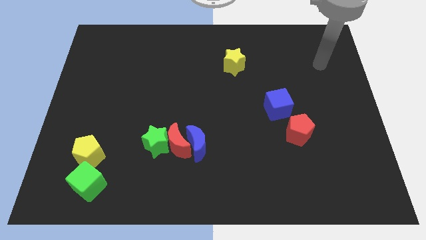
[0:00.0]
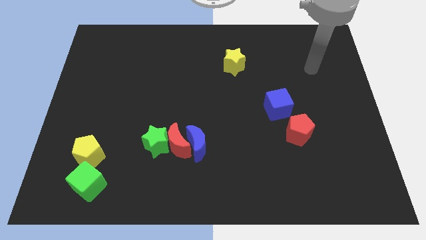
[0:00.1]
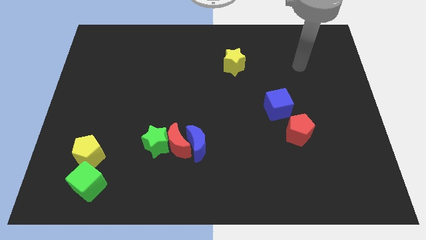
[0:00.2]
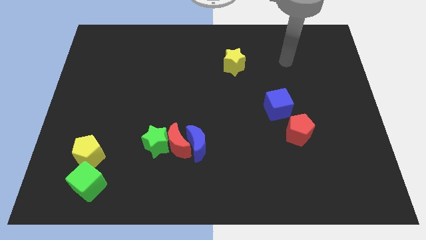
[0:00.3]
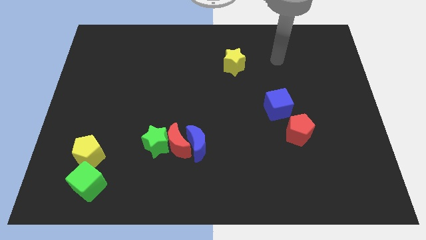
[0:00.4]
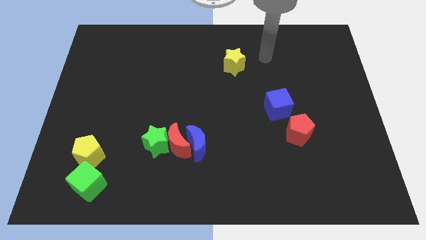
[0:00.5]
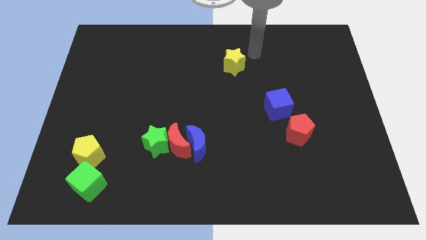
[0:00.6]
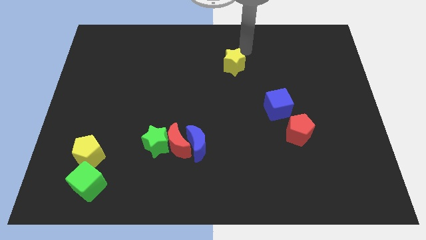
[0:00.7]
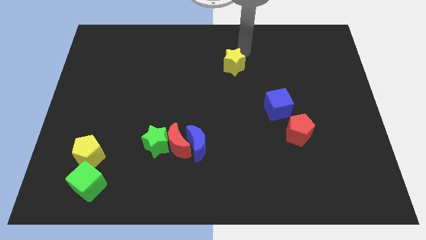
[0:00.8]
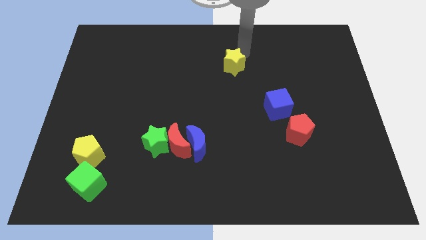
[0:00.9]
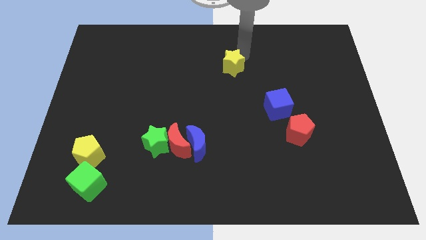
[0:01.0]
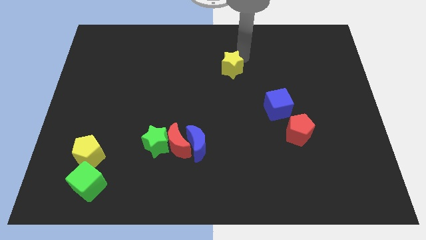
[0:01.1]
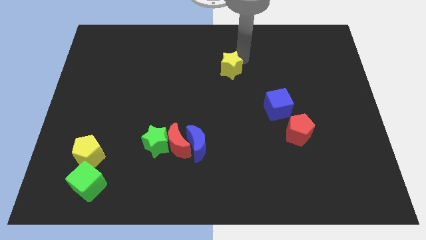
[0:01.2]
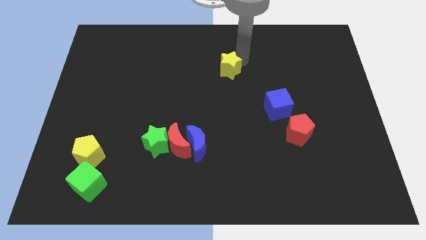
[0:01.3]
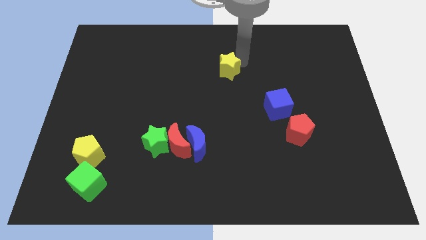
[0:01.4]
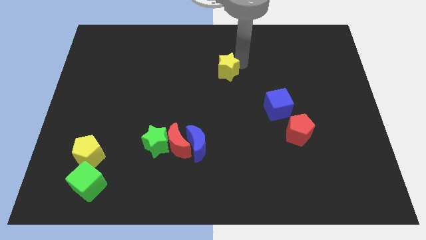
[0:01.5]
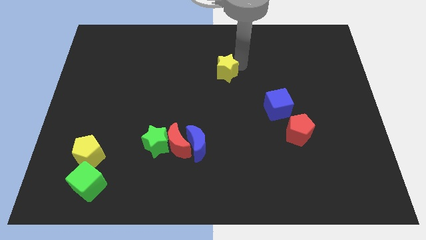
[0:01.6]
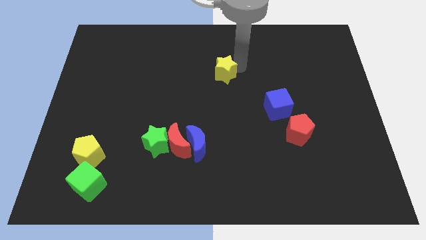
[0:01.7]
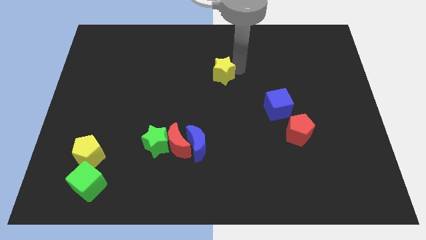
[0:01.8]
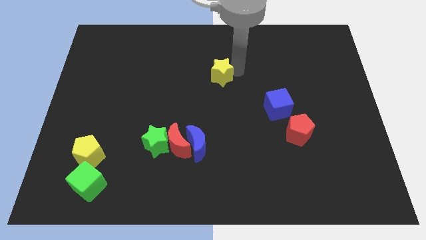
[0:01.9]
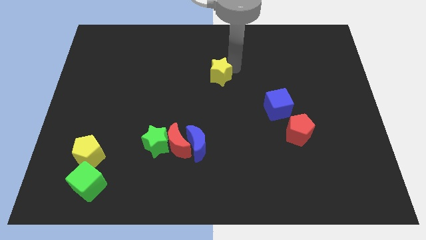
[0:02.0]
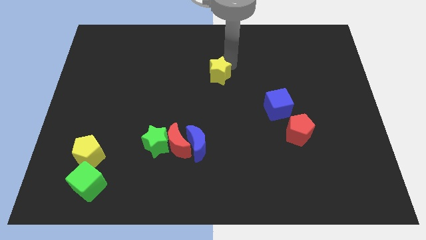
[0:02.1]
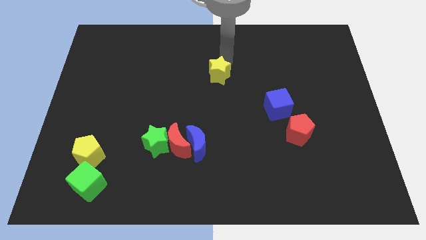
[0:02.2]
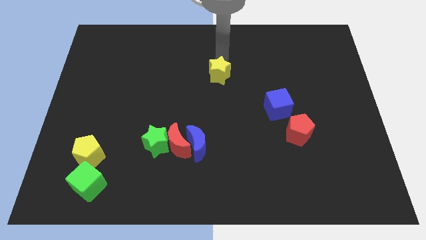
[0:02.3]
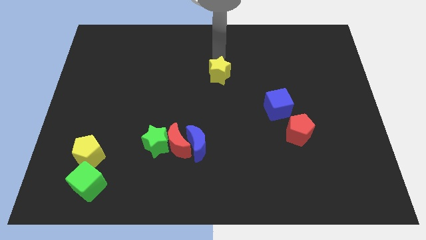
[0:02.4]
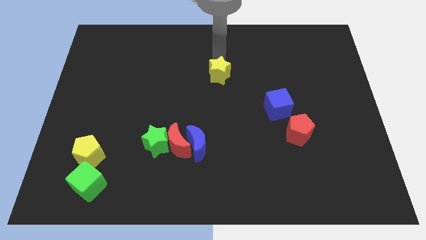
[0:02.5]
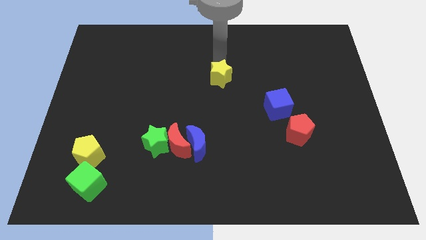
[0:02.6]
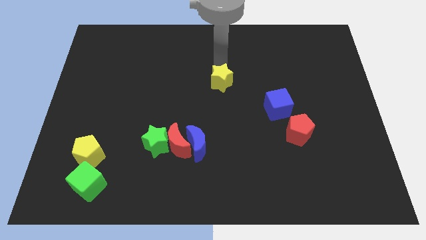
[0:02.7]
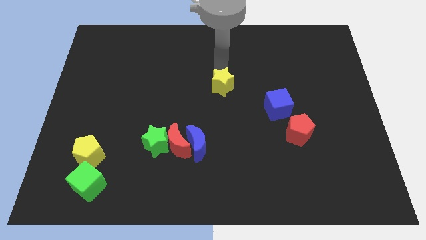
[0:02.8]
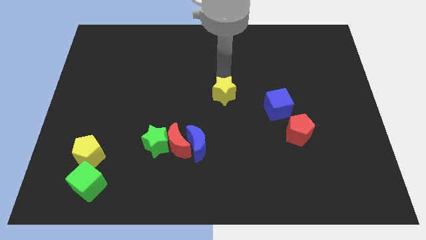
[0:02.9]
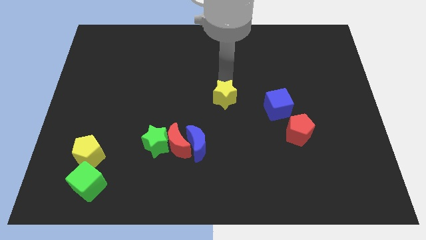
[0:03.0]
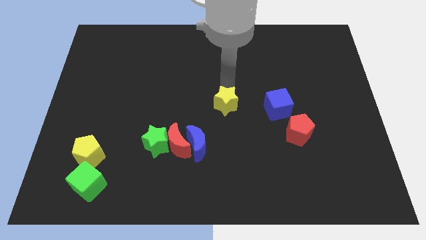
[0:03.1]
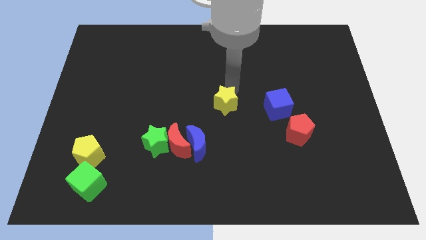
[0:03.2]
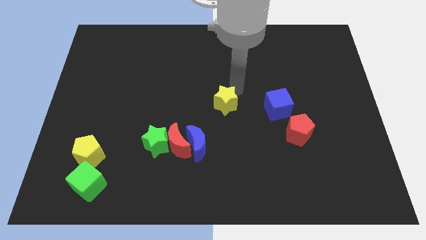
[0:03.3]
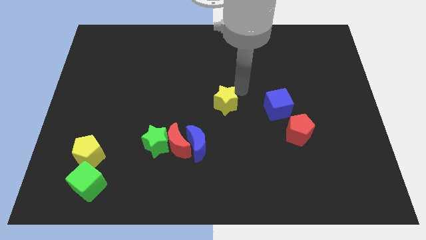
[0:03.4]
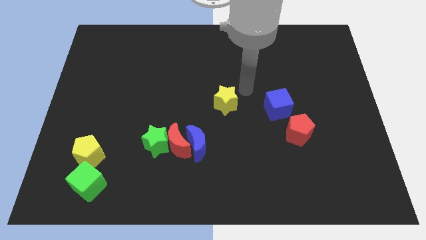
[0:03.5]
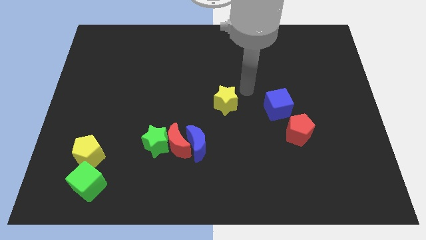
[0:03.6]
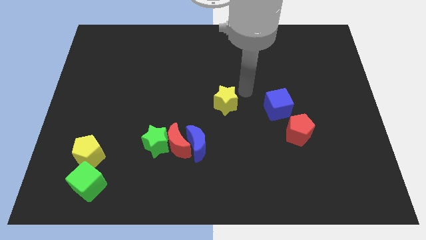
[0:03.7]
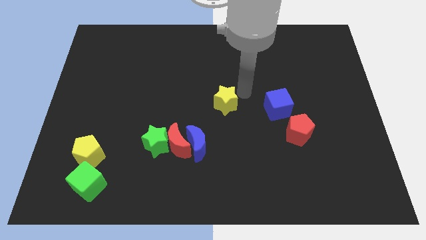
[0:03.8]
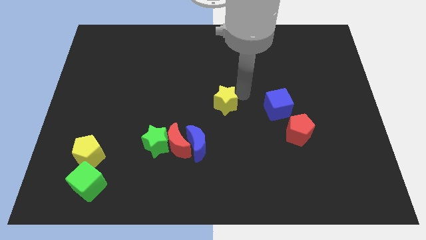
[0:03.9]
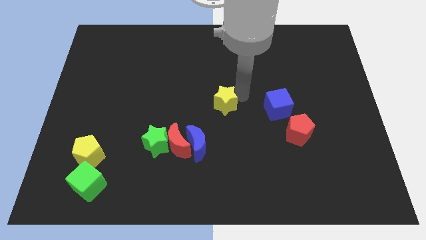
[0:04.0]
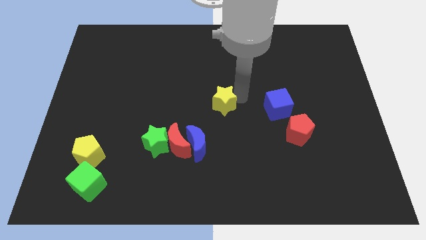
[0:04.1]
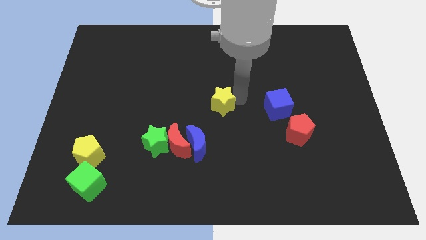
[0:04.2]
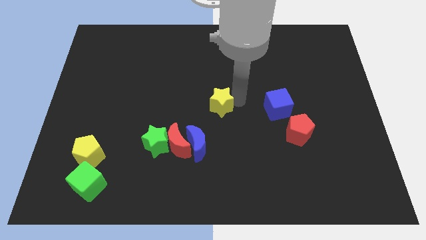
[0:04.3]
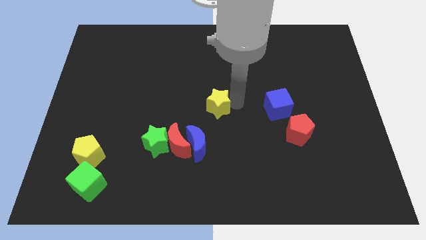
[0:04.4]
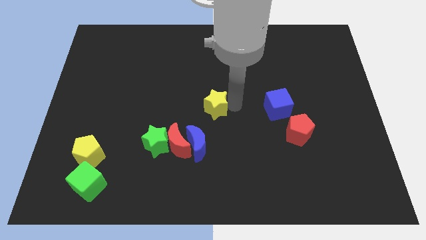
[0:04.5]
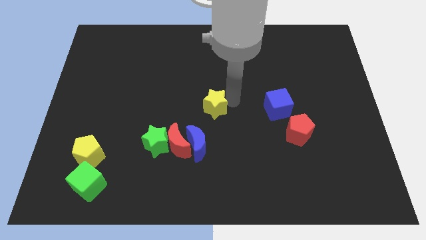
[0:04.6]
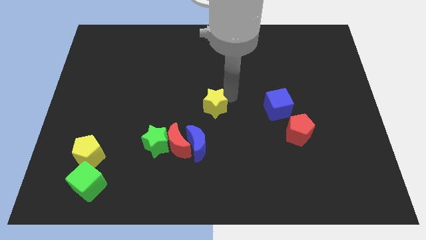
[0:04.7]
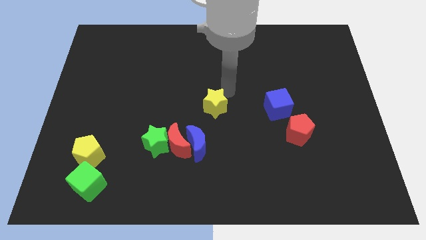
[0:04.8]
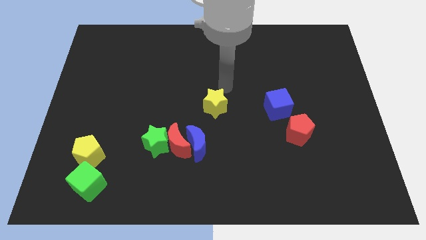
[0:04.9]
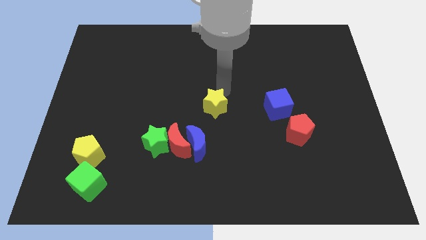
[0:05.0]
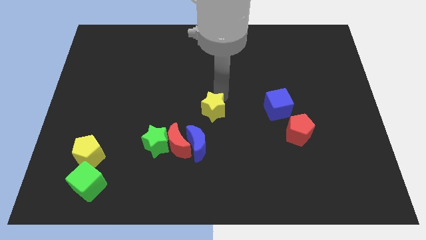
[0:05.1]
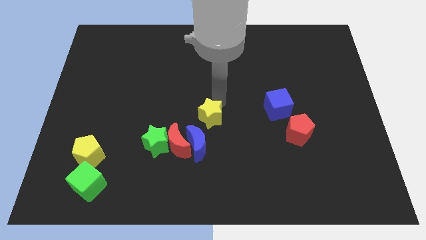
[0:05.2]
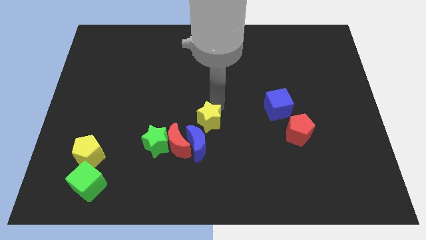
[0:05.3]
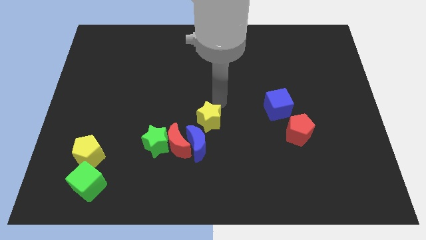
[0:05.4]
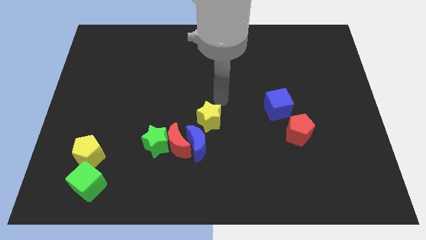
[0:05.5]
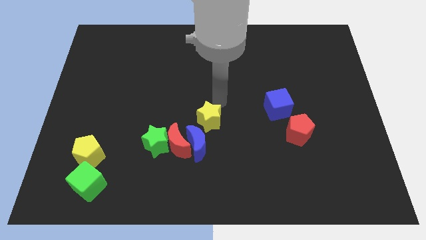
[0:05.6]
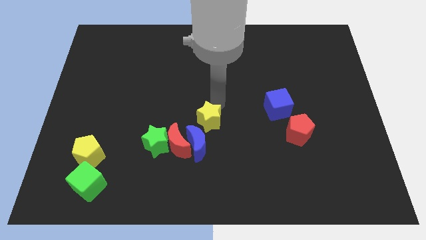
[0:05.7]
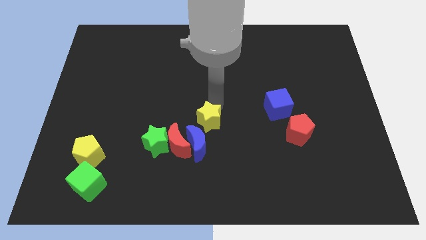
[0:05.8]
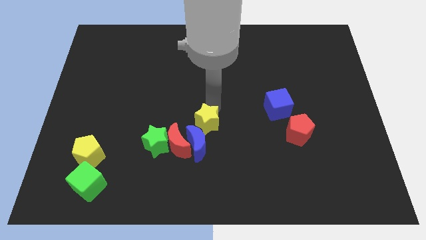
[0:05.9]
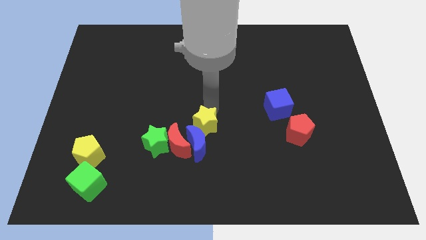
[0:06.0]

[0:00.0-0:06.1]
push the yellow star towards the blue moon

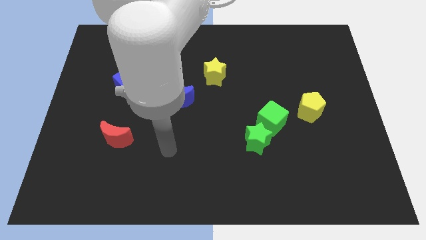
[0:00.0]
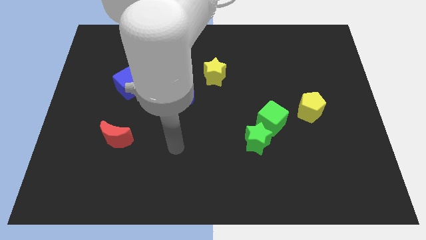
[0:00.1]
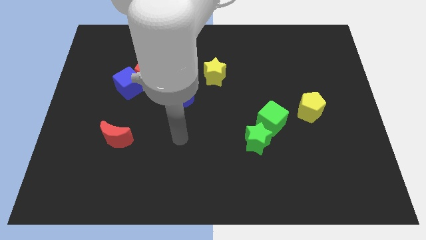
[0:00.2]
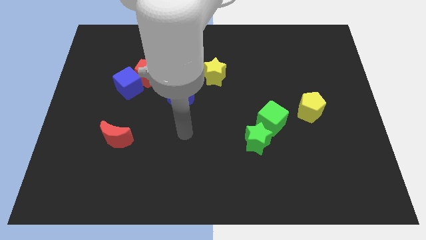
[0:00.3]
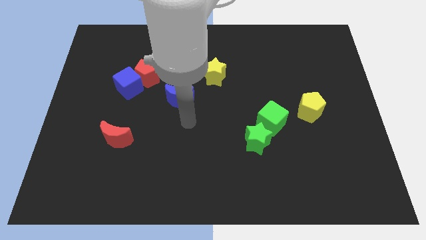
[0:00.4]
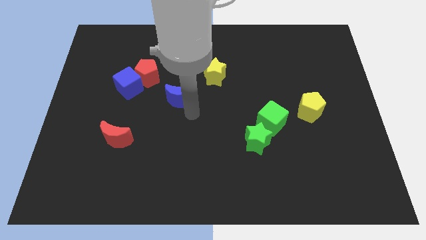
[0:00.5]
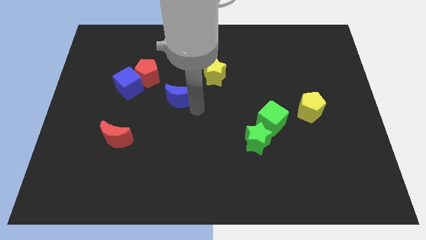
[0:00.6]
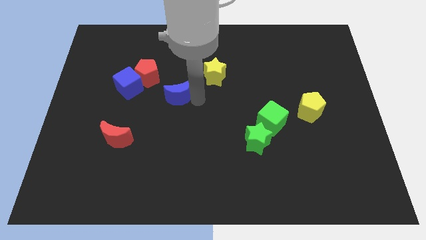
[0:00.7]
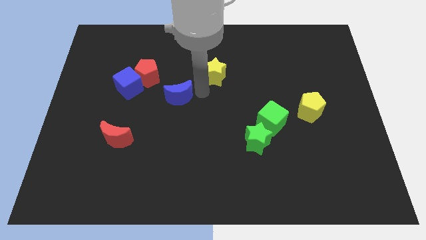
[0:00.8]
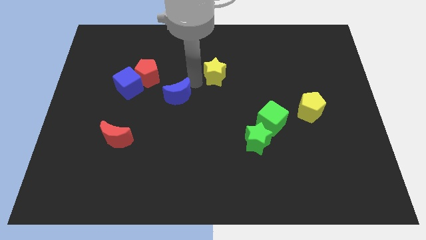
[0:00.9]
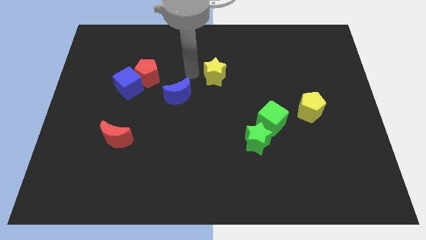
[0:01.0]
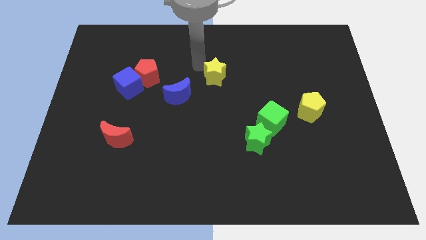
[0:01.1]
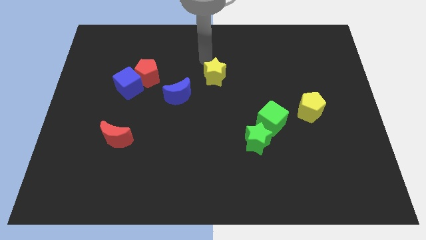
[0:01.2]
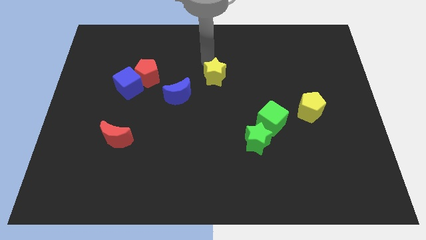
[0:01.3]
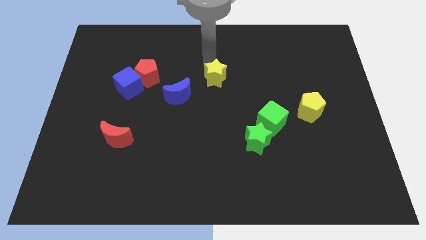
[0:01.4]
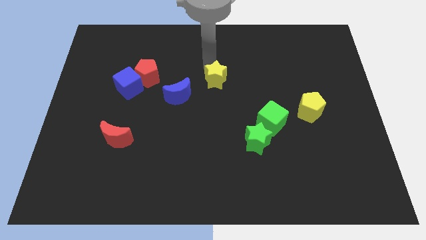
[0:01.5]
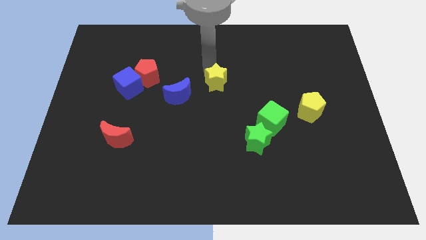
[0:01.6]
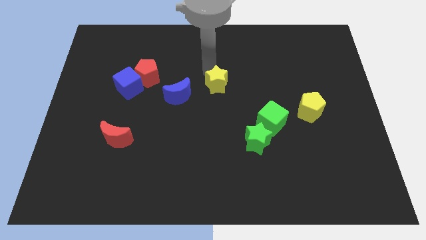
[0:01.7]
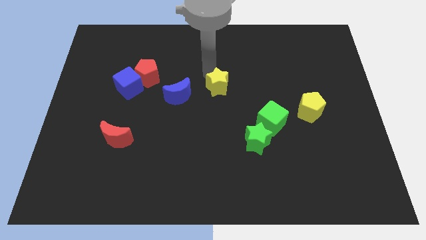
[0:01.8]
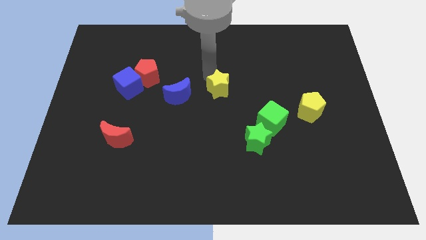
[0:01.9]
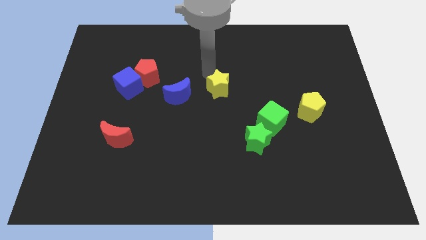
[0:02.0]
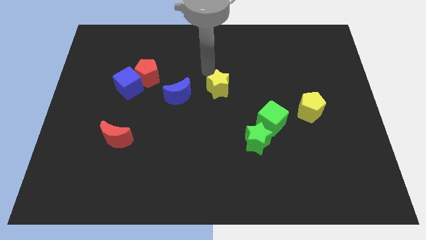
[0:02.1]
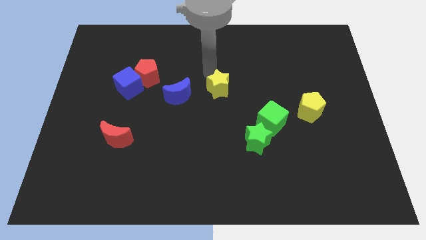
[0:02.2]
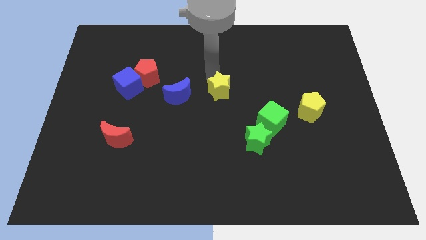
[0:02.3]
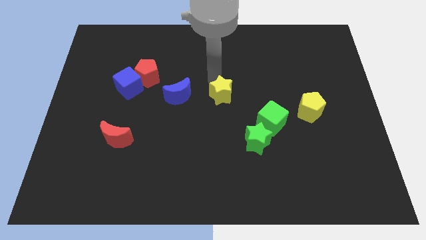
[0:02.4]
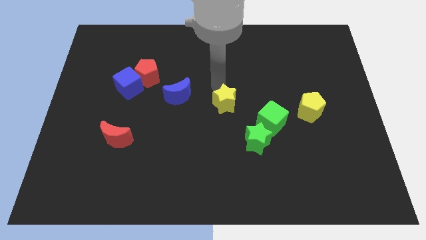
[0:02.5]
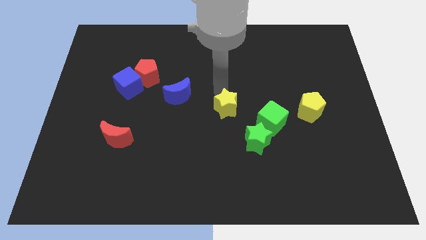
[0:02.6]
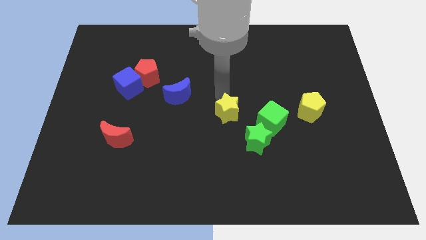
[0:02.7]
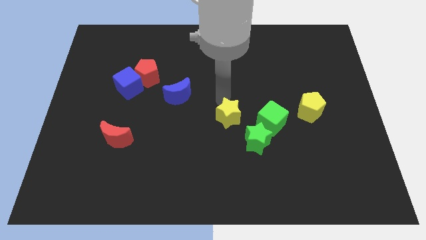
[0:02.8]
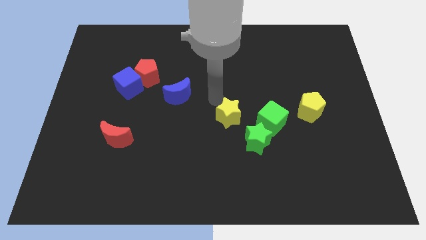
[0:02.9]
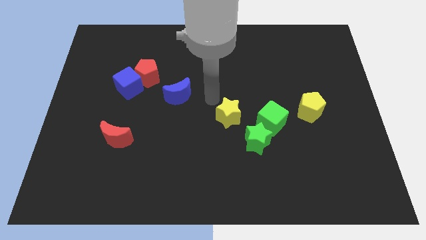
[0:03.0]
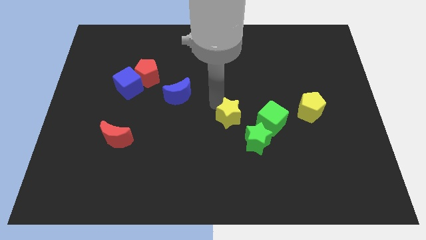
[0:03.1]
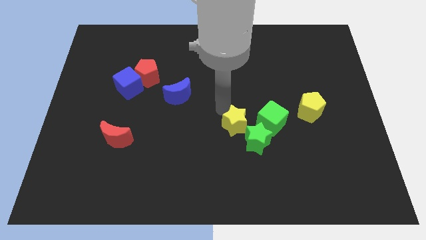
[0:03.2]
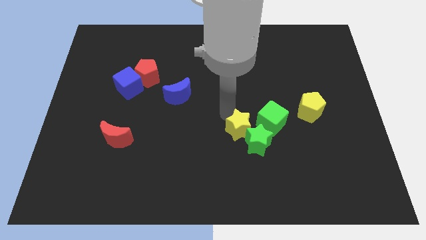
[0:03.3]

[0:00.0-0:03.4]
move the yellow star towards the green star
